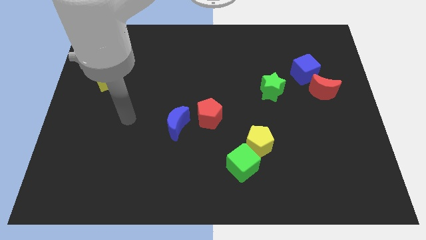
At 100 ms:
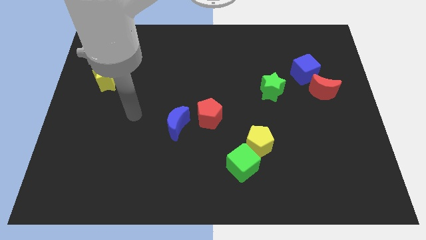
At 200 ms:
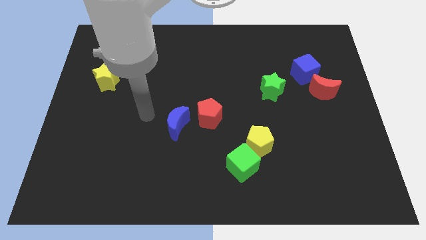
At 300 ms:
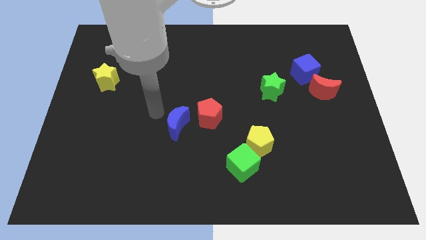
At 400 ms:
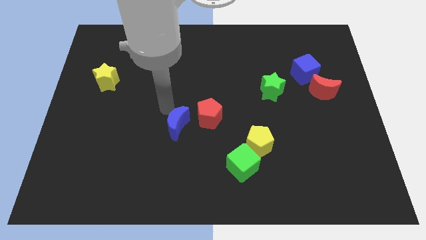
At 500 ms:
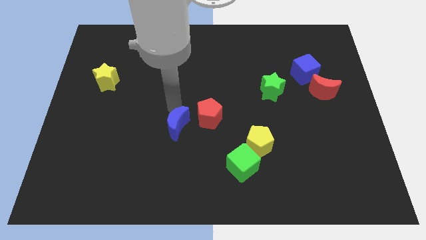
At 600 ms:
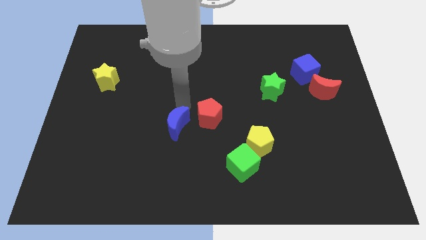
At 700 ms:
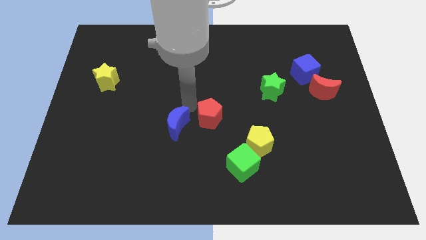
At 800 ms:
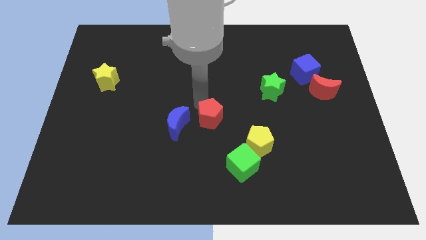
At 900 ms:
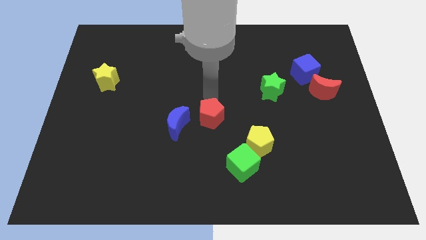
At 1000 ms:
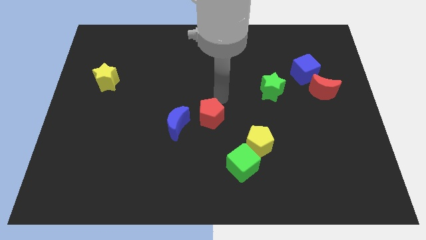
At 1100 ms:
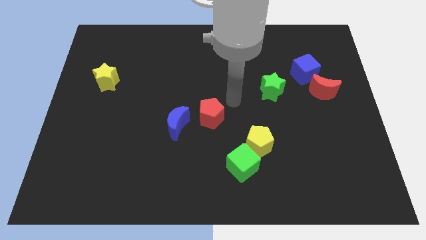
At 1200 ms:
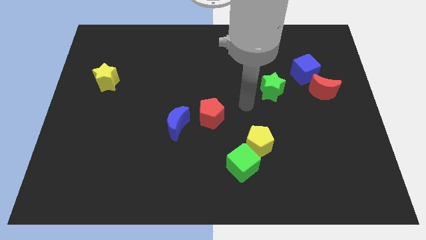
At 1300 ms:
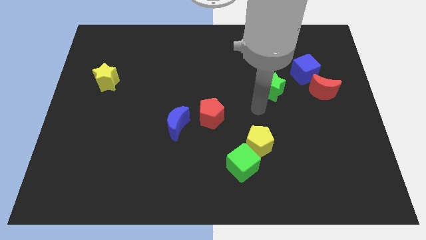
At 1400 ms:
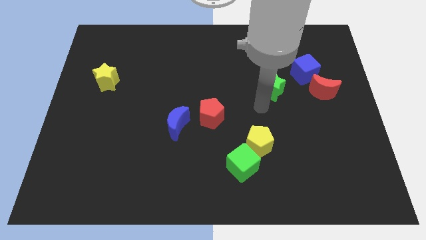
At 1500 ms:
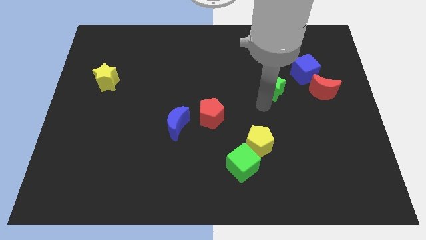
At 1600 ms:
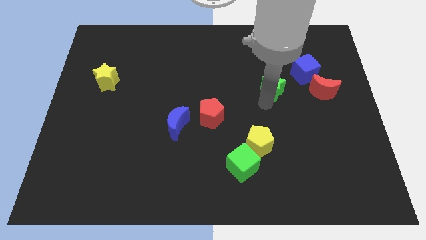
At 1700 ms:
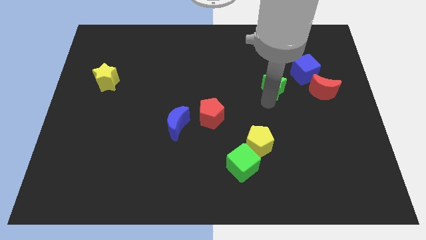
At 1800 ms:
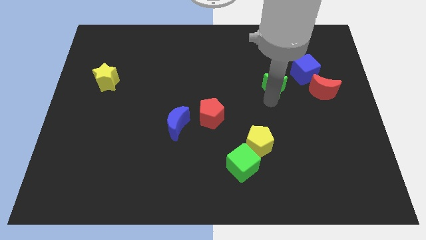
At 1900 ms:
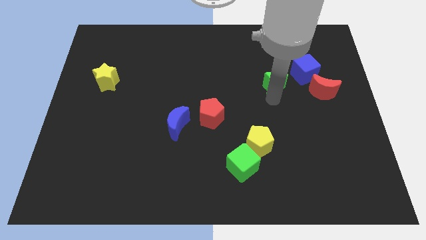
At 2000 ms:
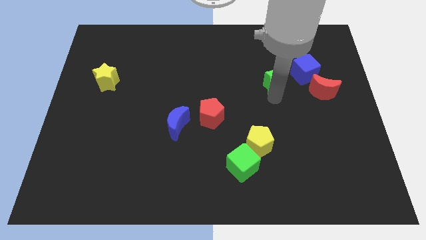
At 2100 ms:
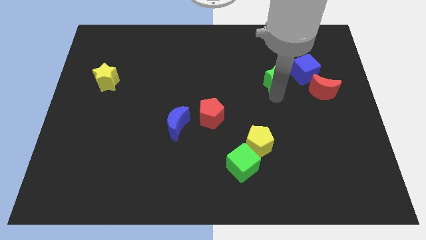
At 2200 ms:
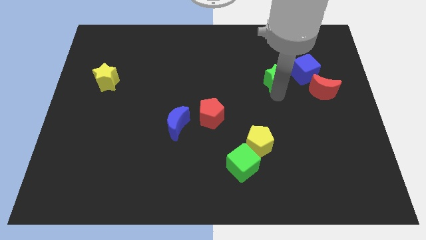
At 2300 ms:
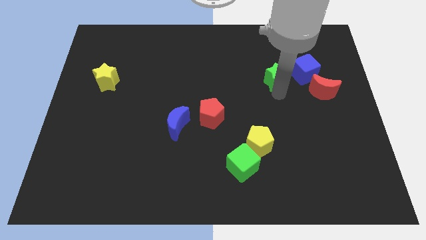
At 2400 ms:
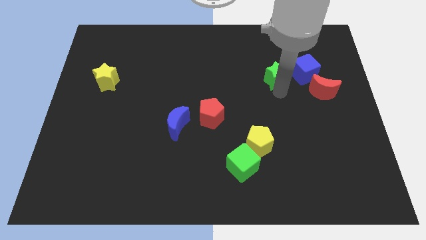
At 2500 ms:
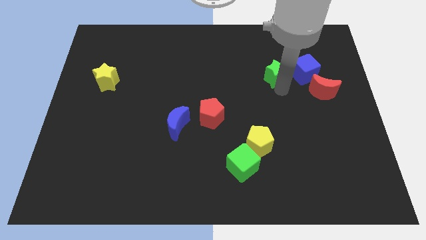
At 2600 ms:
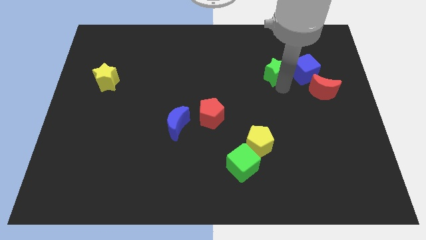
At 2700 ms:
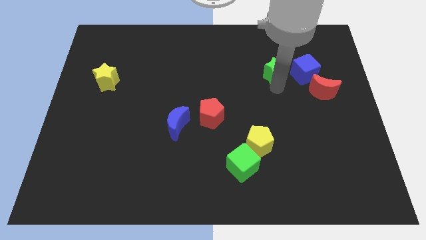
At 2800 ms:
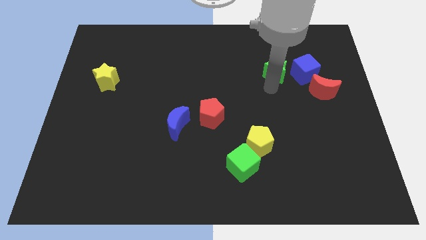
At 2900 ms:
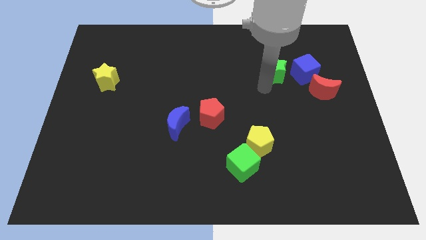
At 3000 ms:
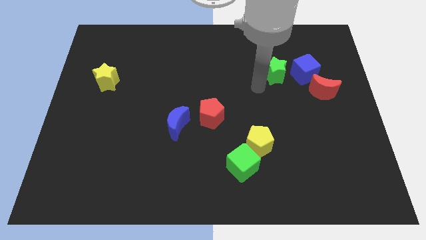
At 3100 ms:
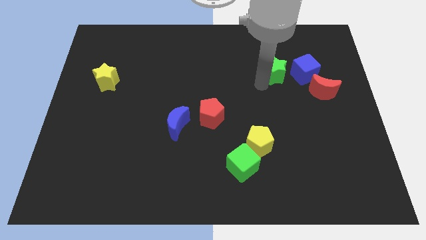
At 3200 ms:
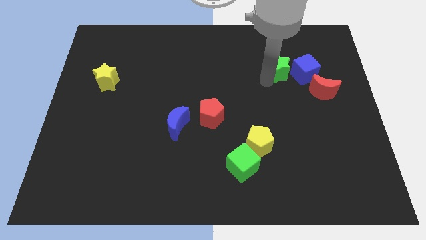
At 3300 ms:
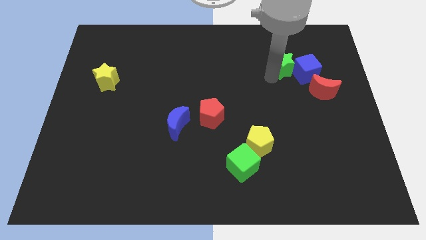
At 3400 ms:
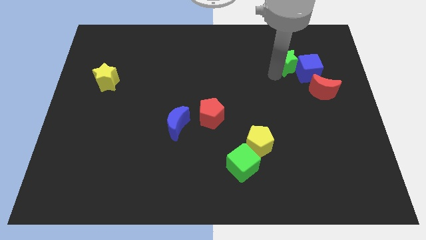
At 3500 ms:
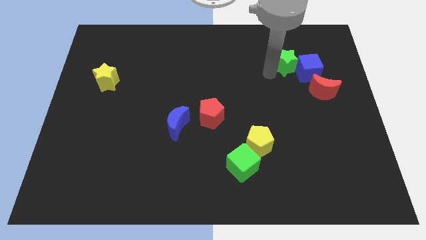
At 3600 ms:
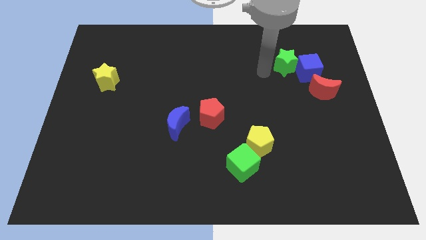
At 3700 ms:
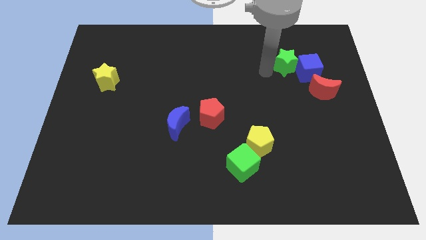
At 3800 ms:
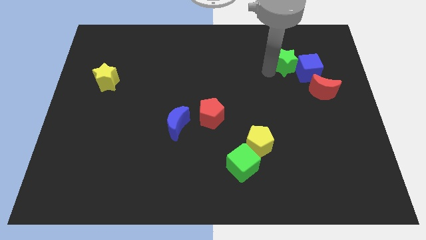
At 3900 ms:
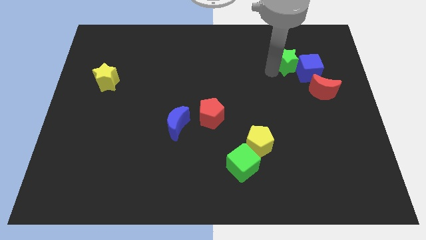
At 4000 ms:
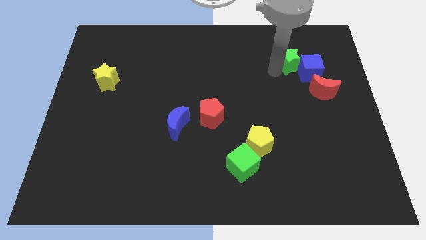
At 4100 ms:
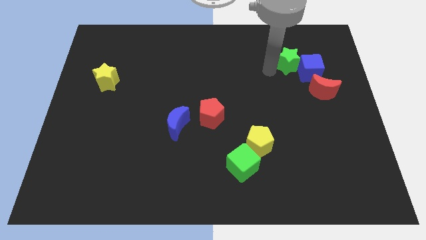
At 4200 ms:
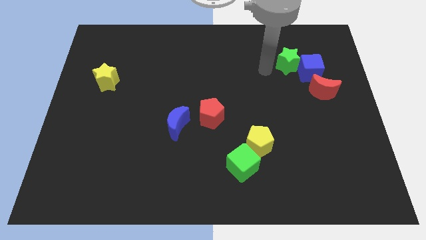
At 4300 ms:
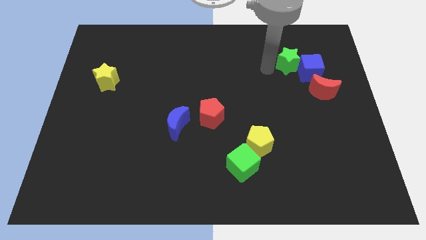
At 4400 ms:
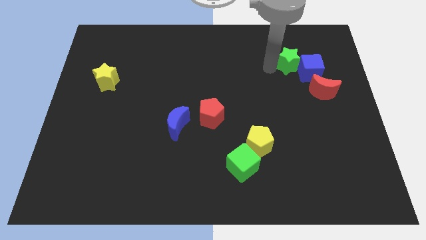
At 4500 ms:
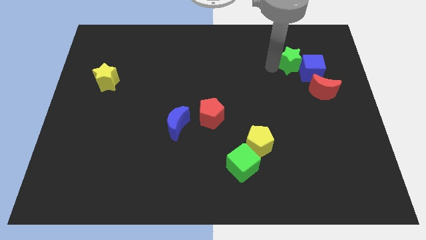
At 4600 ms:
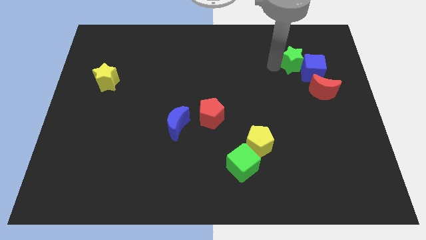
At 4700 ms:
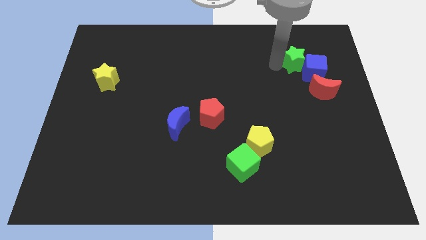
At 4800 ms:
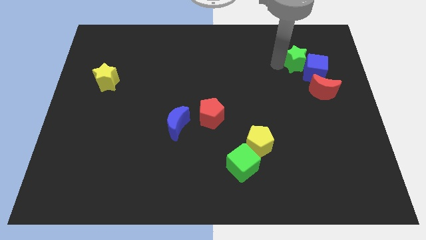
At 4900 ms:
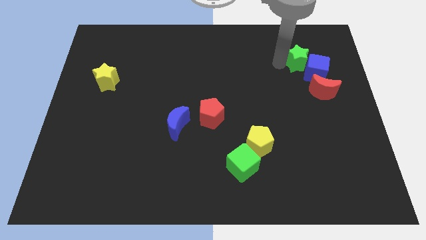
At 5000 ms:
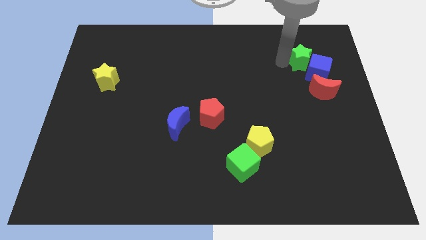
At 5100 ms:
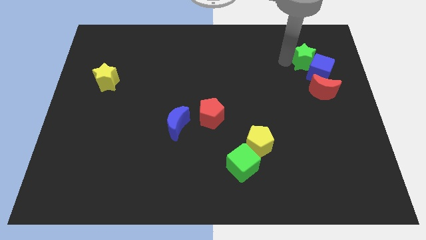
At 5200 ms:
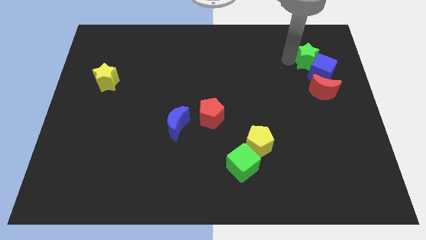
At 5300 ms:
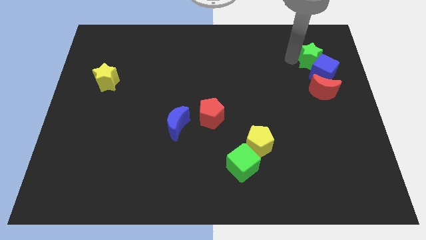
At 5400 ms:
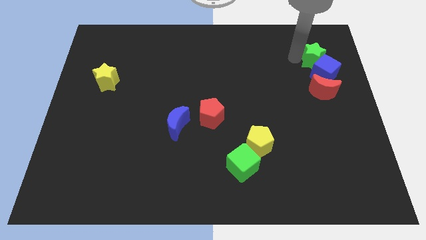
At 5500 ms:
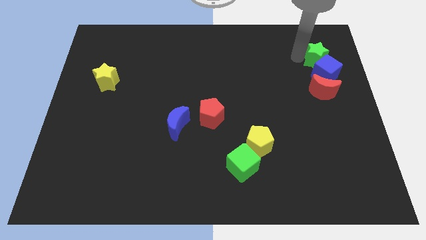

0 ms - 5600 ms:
put the green star diagonally up and to the right of the blue cube

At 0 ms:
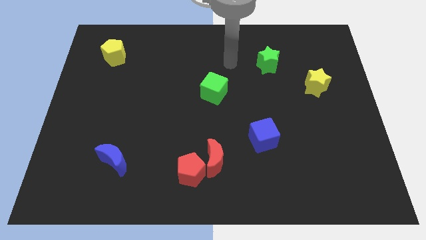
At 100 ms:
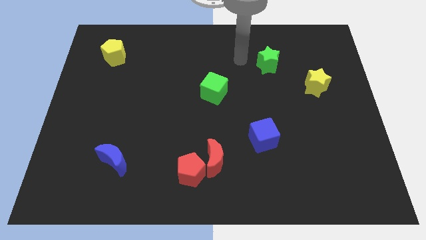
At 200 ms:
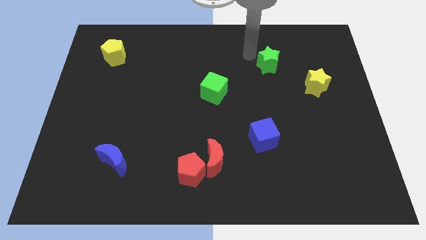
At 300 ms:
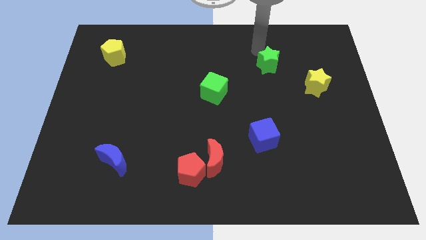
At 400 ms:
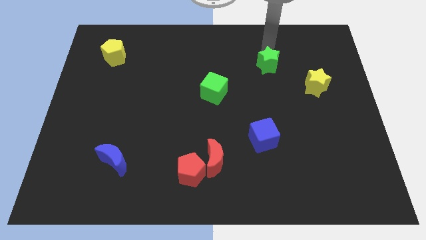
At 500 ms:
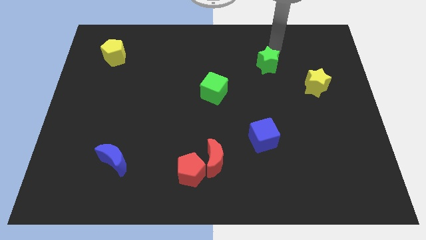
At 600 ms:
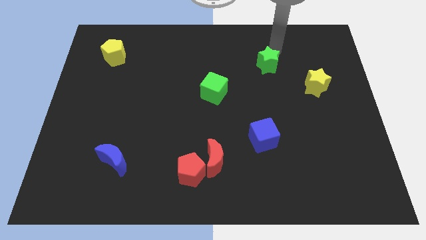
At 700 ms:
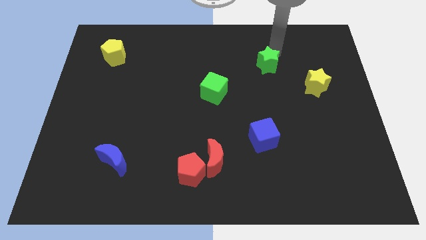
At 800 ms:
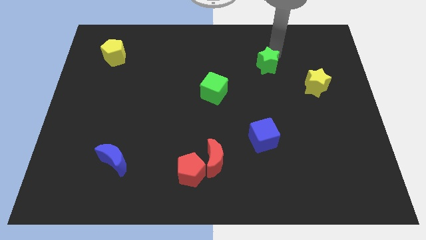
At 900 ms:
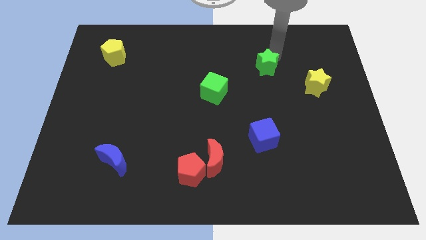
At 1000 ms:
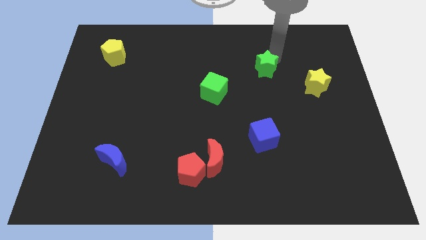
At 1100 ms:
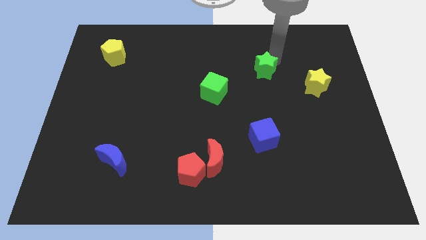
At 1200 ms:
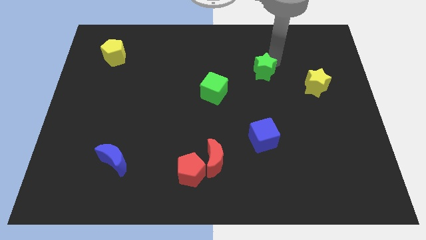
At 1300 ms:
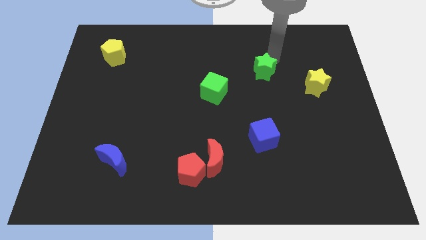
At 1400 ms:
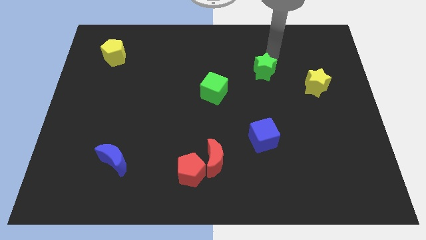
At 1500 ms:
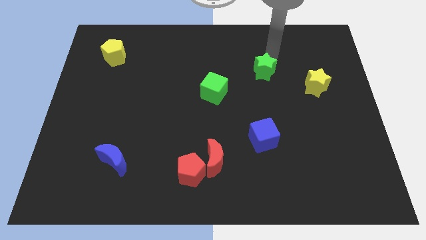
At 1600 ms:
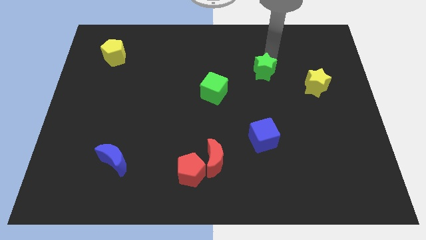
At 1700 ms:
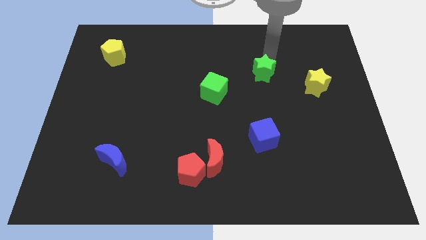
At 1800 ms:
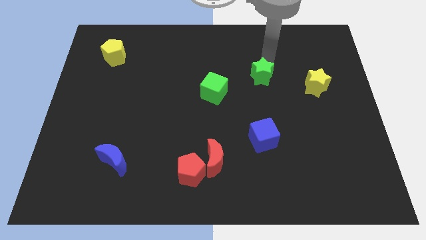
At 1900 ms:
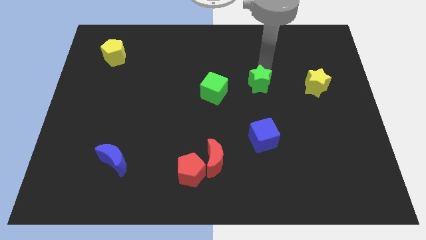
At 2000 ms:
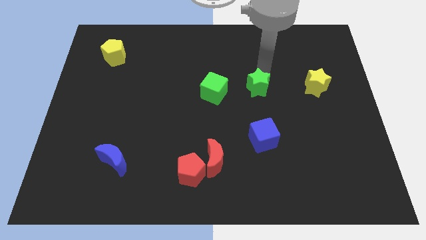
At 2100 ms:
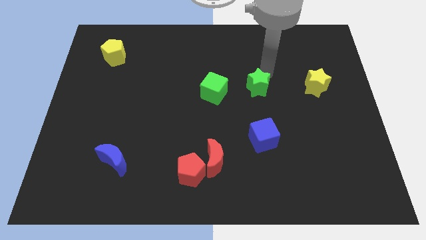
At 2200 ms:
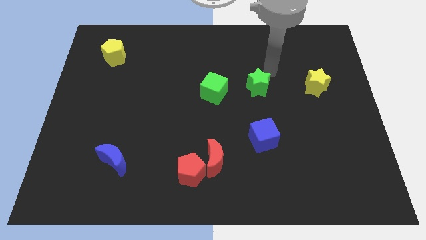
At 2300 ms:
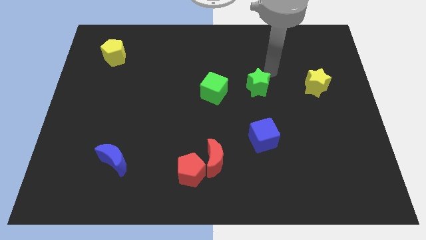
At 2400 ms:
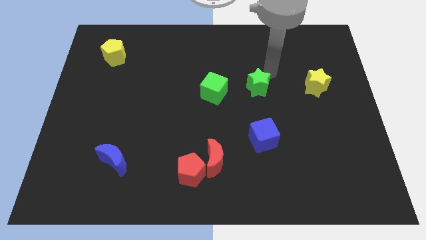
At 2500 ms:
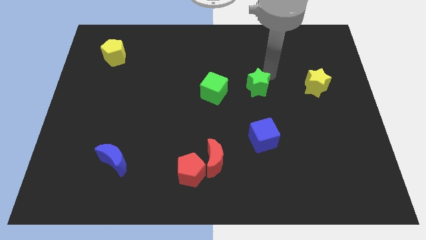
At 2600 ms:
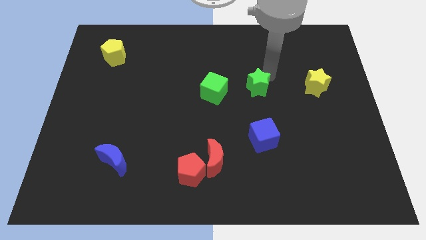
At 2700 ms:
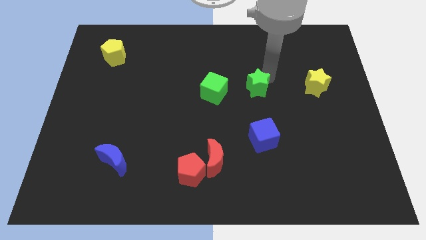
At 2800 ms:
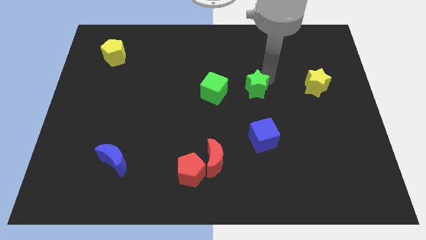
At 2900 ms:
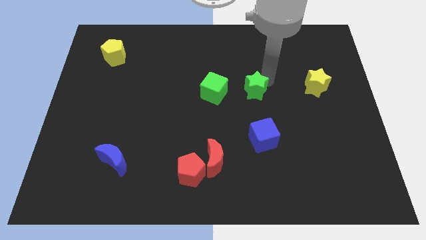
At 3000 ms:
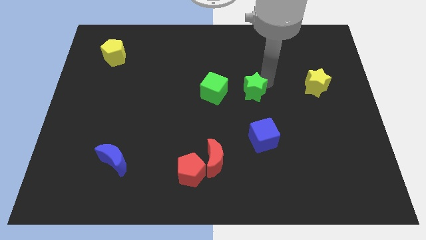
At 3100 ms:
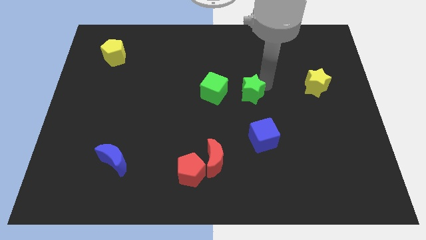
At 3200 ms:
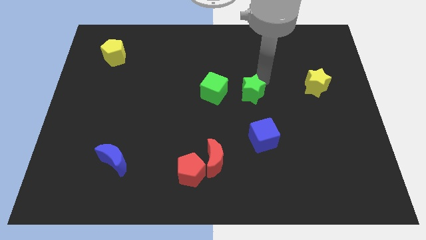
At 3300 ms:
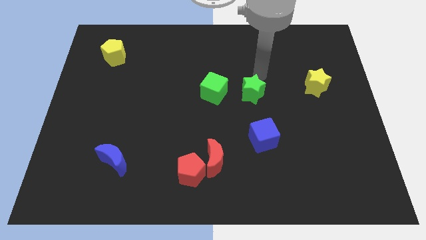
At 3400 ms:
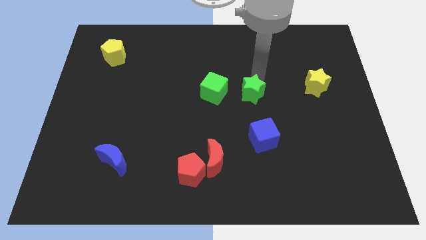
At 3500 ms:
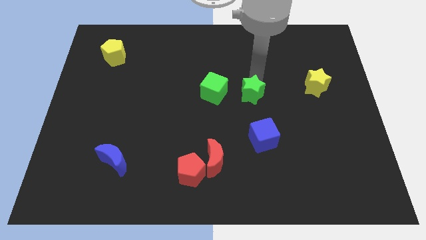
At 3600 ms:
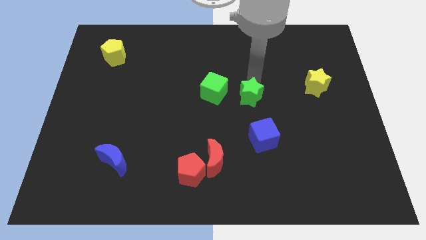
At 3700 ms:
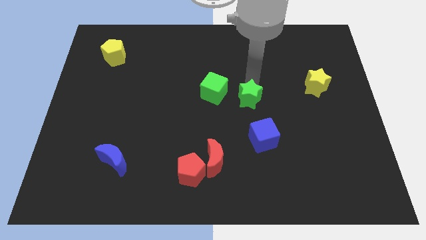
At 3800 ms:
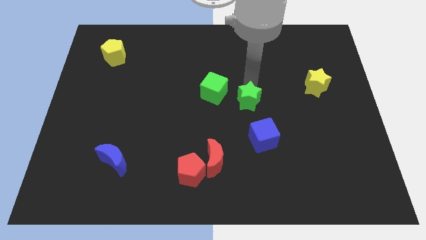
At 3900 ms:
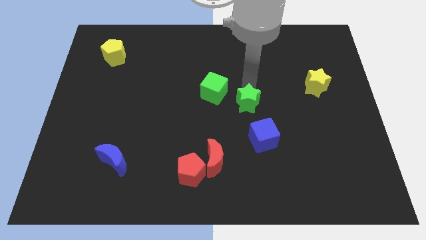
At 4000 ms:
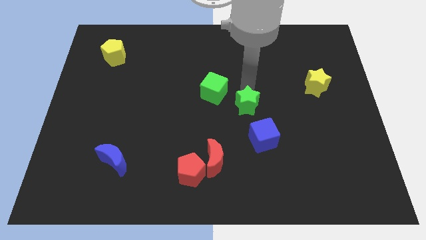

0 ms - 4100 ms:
push the green star to the top left side of the blue cube
